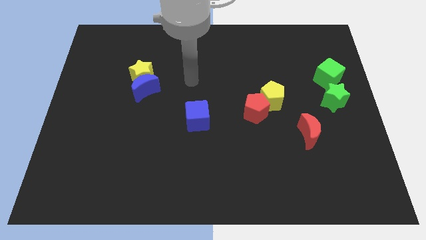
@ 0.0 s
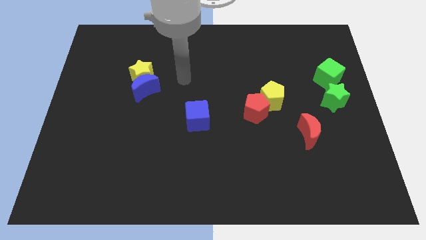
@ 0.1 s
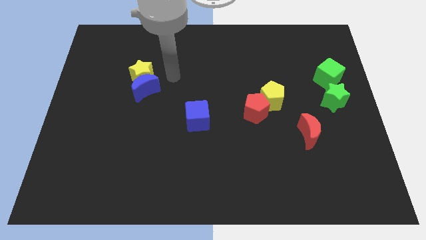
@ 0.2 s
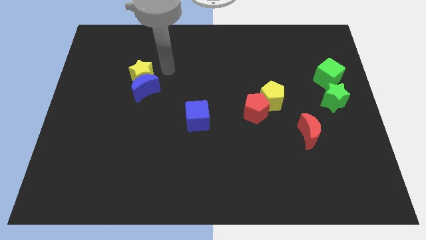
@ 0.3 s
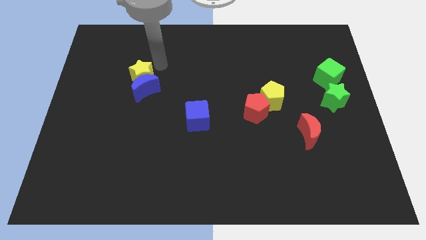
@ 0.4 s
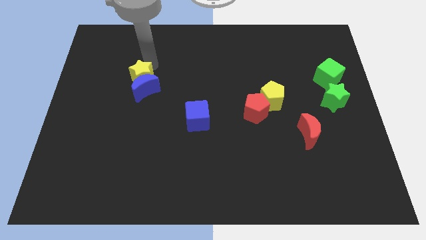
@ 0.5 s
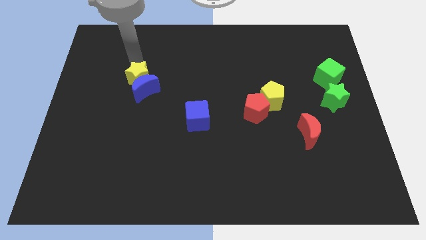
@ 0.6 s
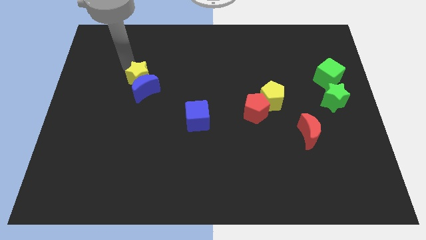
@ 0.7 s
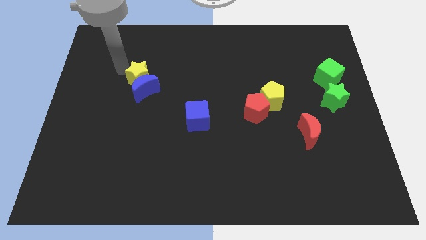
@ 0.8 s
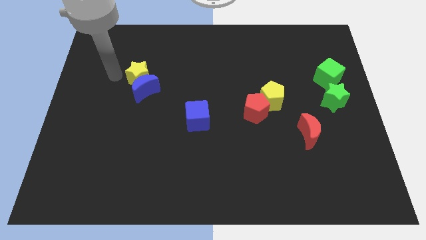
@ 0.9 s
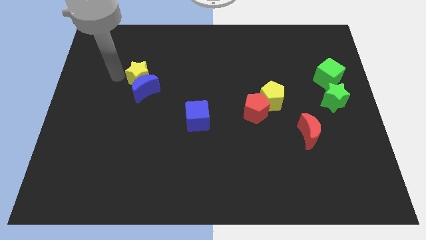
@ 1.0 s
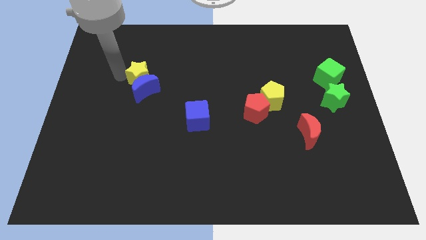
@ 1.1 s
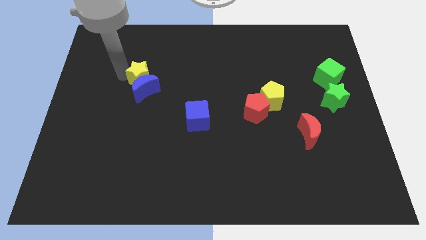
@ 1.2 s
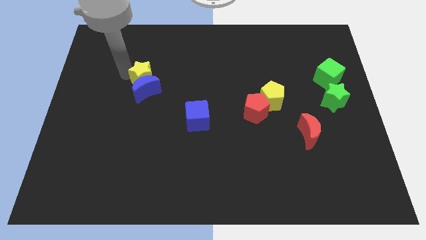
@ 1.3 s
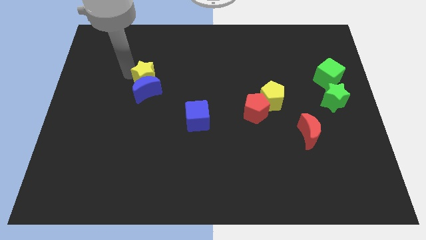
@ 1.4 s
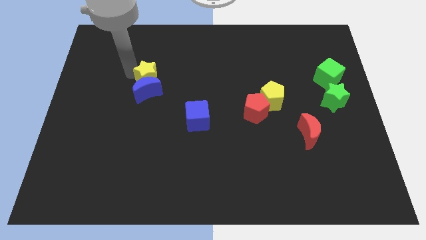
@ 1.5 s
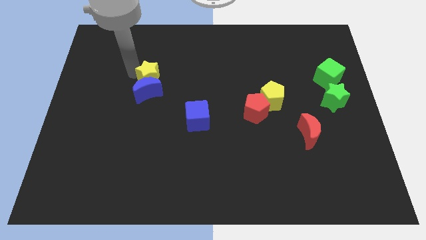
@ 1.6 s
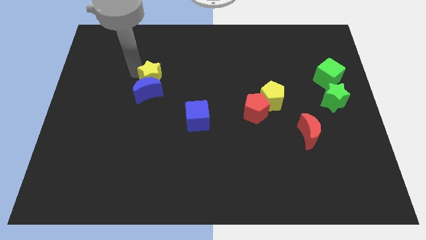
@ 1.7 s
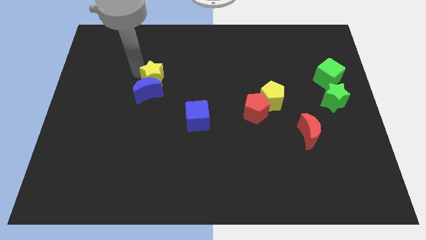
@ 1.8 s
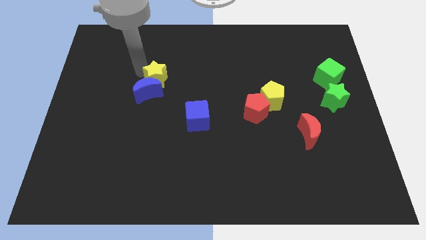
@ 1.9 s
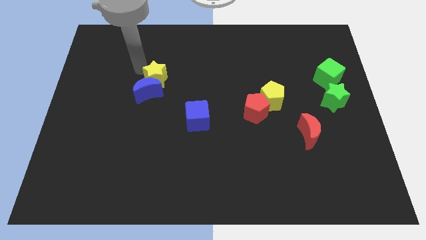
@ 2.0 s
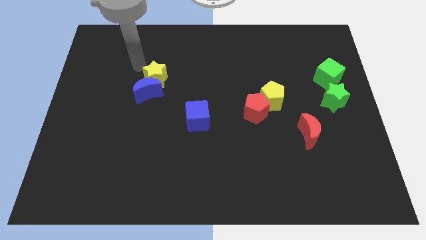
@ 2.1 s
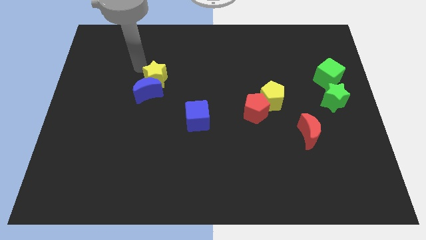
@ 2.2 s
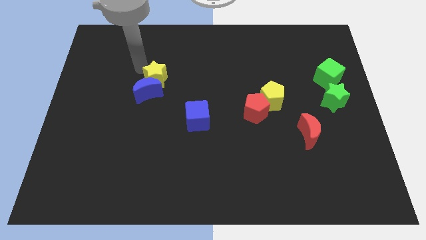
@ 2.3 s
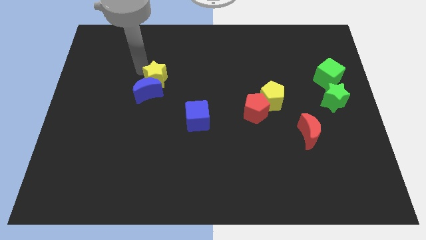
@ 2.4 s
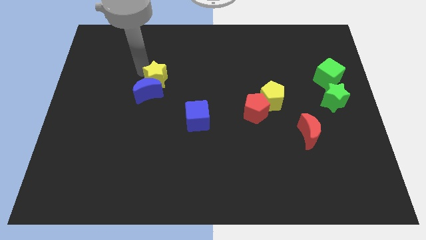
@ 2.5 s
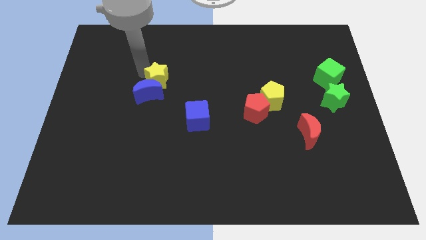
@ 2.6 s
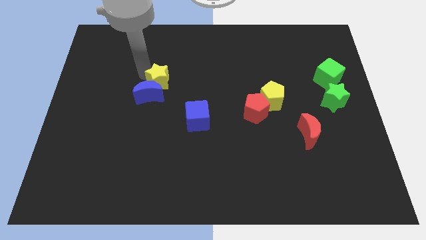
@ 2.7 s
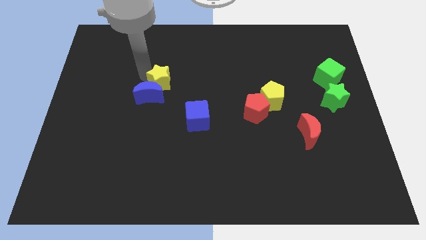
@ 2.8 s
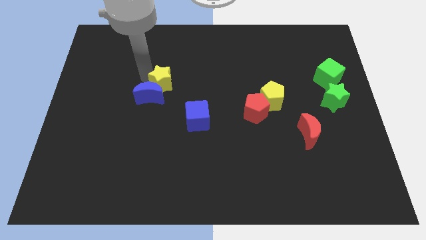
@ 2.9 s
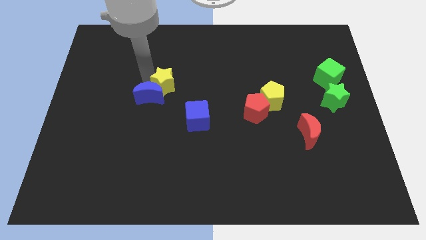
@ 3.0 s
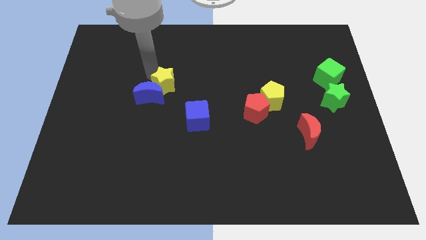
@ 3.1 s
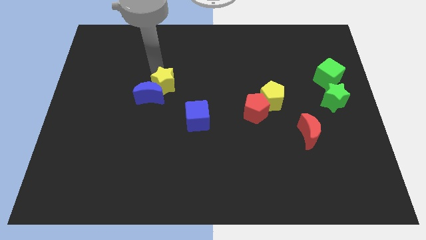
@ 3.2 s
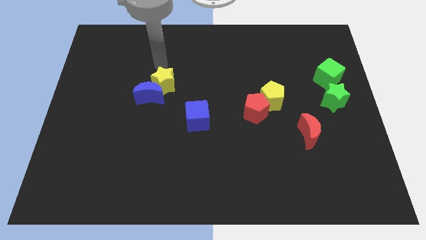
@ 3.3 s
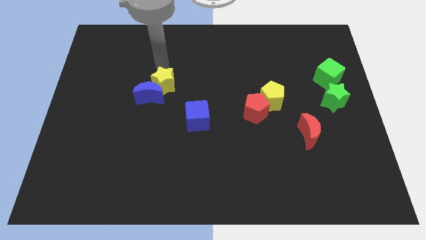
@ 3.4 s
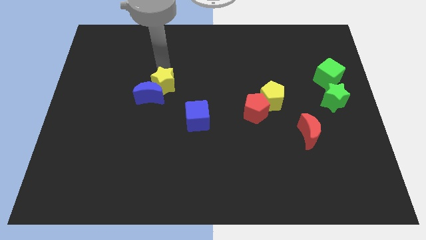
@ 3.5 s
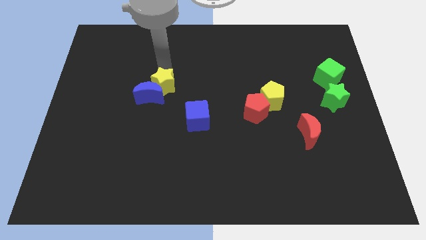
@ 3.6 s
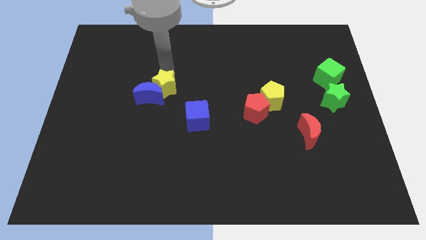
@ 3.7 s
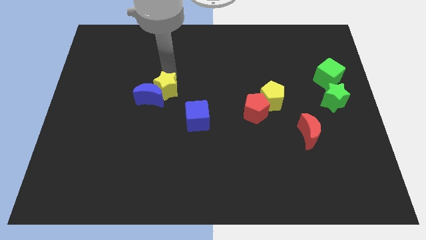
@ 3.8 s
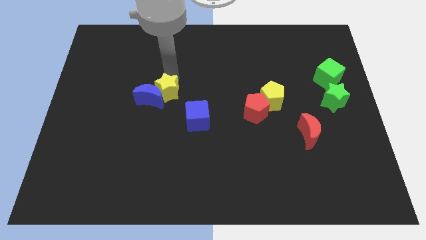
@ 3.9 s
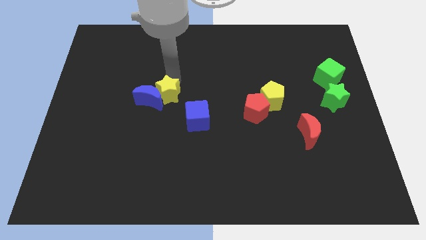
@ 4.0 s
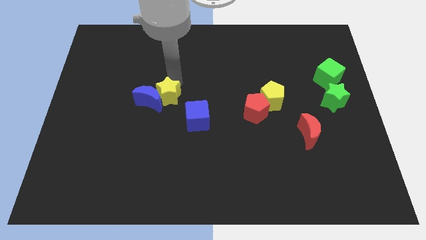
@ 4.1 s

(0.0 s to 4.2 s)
put the yellow star to the bottom right side of the blue moon

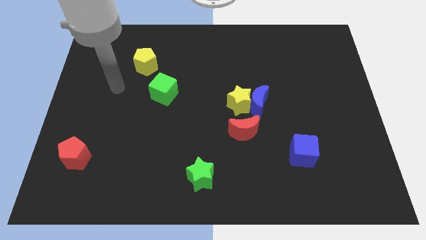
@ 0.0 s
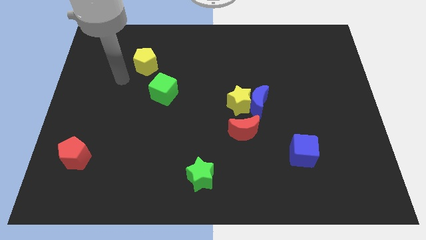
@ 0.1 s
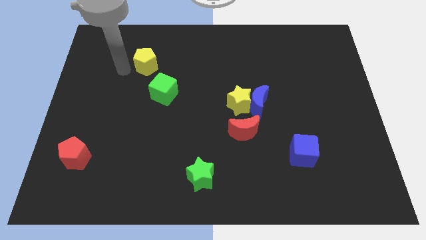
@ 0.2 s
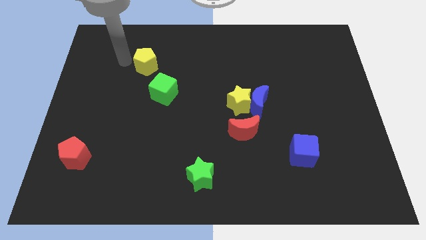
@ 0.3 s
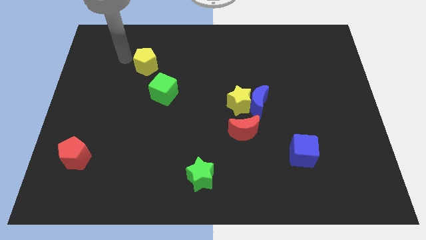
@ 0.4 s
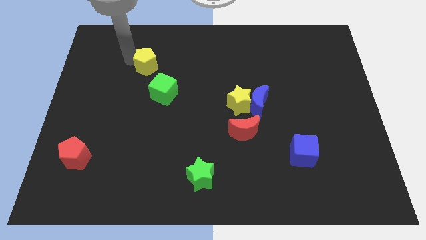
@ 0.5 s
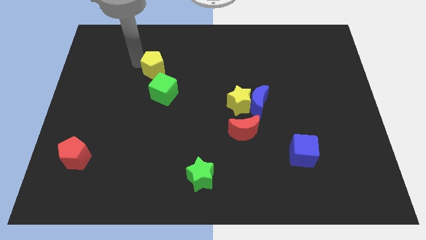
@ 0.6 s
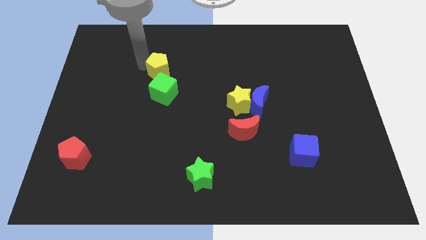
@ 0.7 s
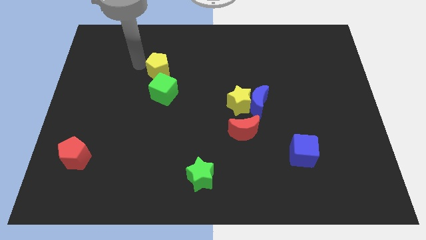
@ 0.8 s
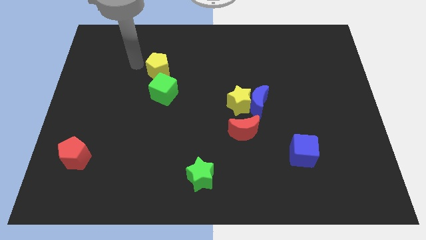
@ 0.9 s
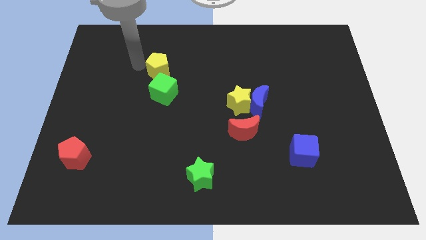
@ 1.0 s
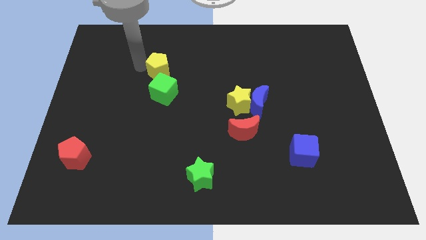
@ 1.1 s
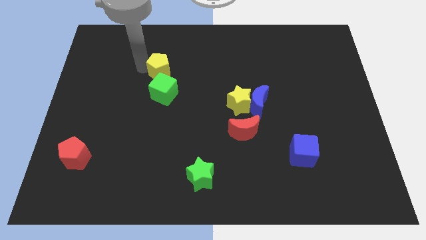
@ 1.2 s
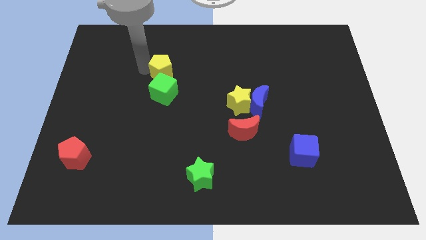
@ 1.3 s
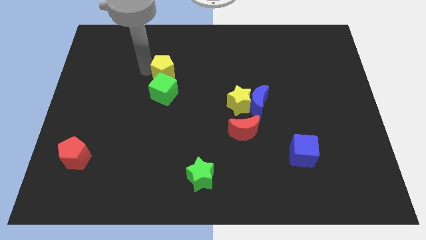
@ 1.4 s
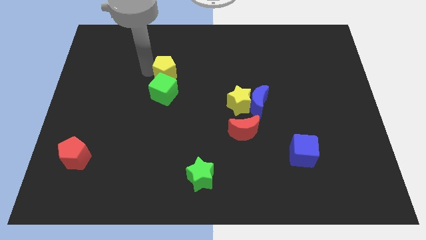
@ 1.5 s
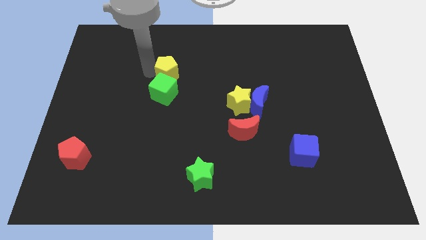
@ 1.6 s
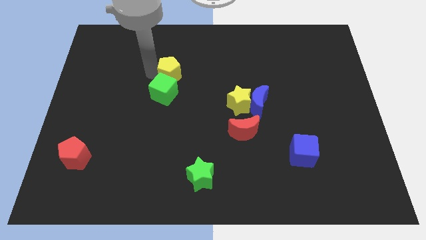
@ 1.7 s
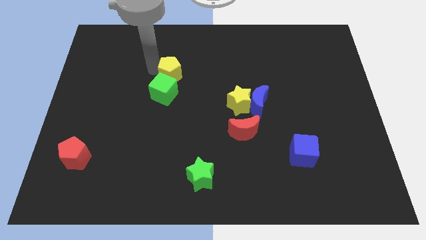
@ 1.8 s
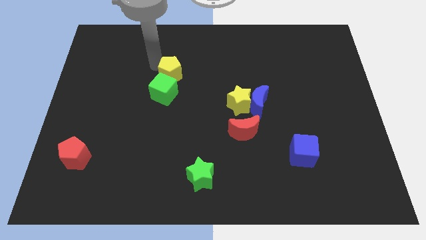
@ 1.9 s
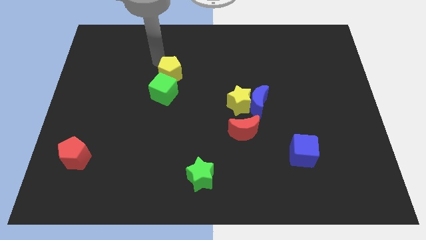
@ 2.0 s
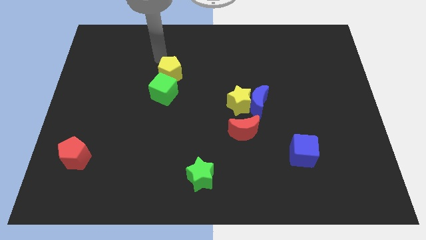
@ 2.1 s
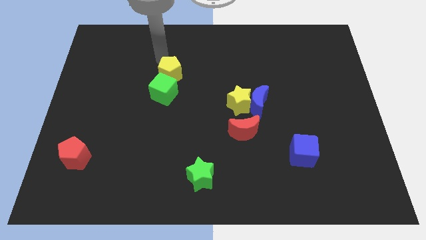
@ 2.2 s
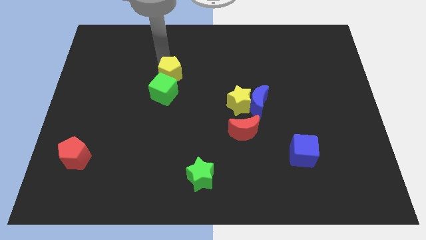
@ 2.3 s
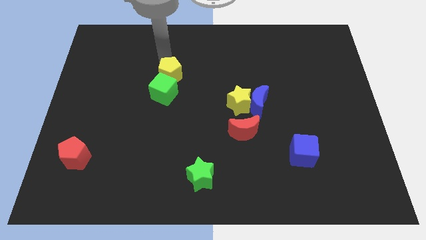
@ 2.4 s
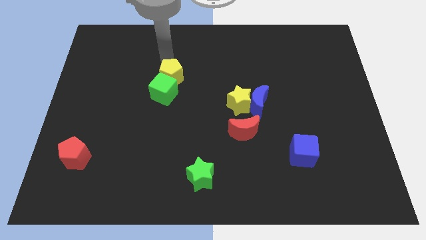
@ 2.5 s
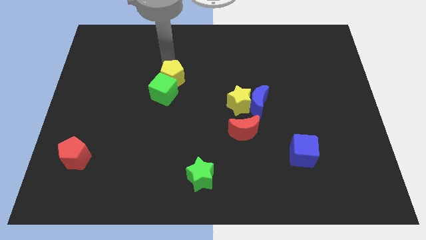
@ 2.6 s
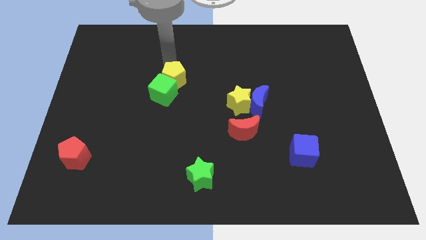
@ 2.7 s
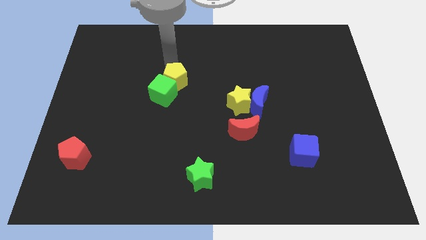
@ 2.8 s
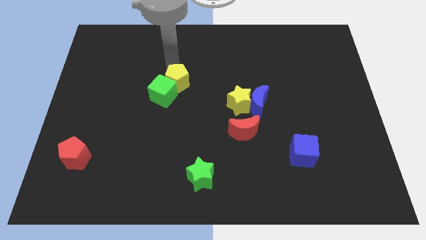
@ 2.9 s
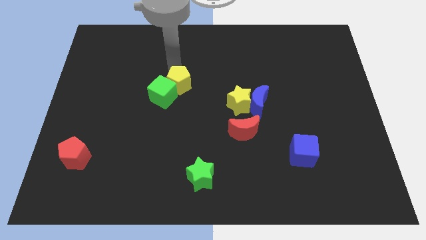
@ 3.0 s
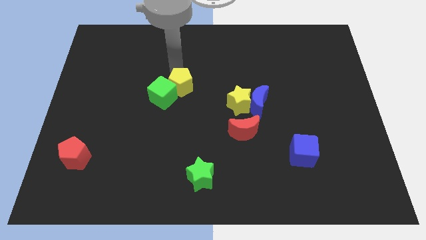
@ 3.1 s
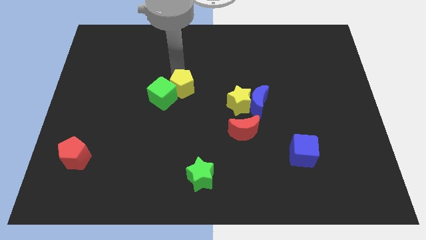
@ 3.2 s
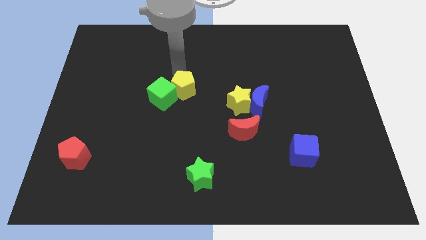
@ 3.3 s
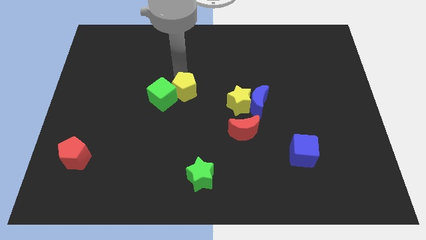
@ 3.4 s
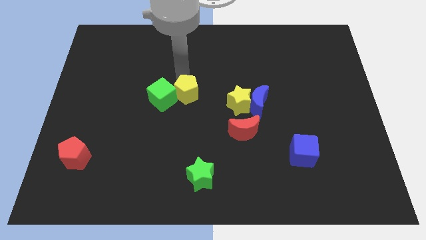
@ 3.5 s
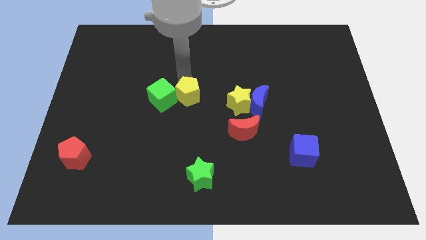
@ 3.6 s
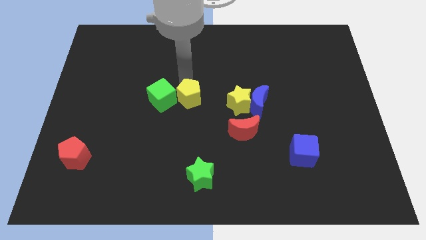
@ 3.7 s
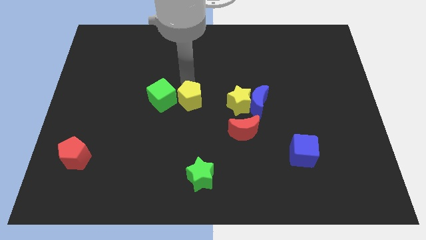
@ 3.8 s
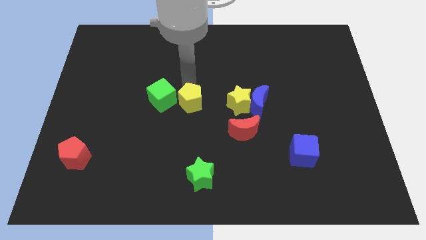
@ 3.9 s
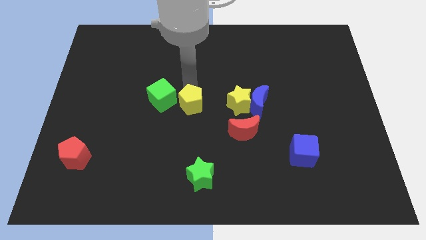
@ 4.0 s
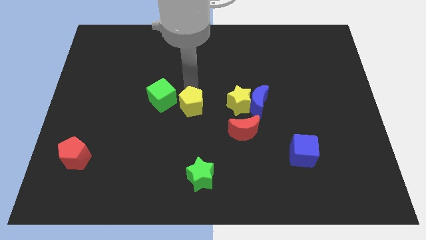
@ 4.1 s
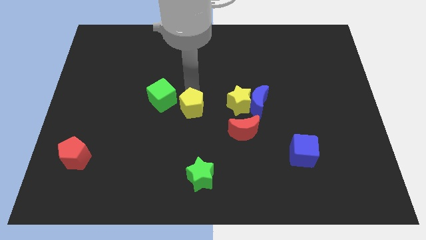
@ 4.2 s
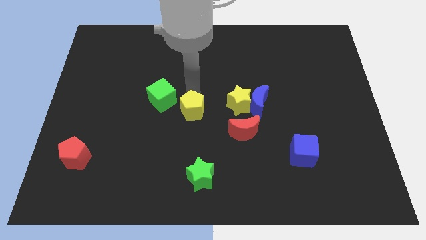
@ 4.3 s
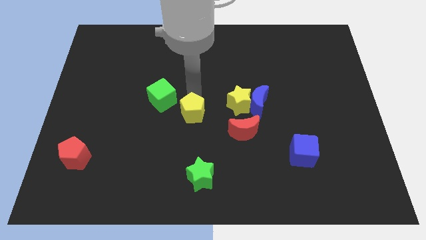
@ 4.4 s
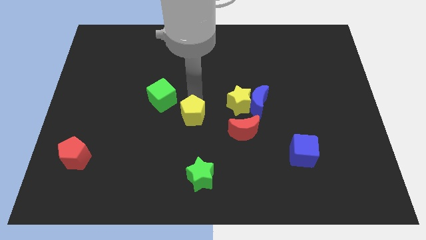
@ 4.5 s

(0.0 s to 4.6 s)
move the yellow pentagon just left of the red moon
